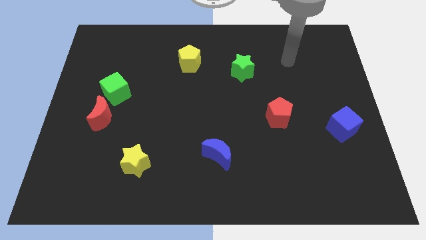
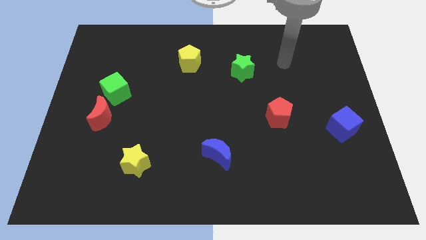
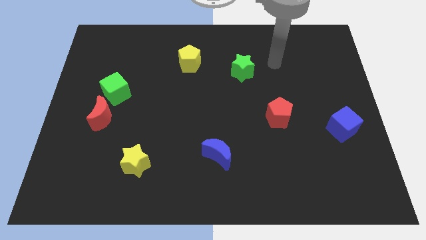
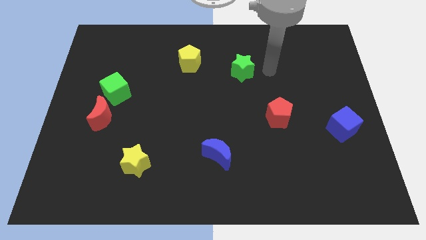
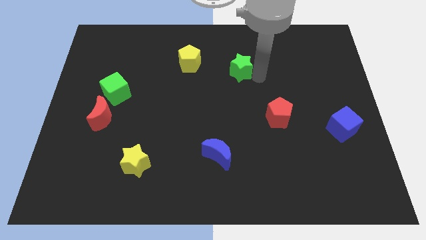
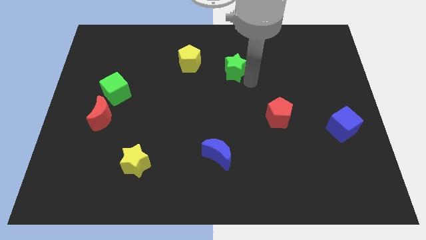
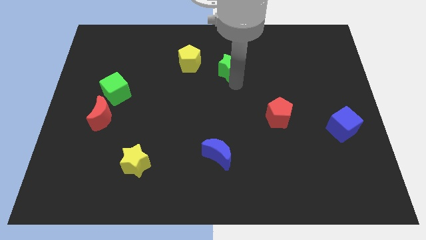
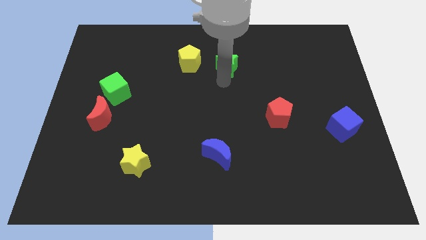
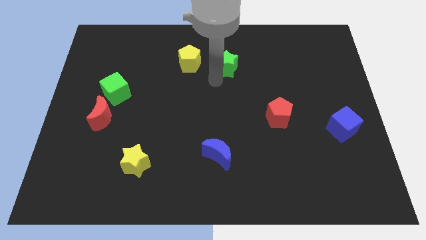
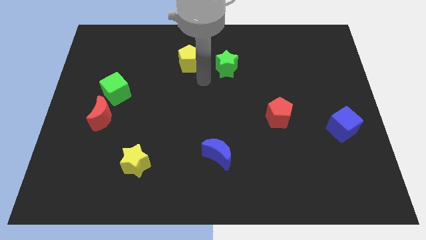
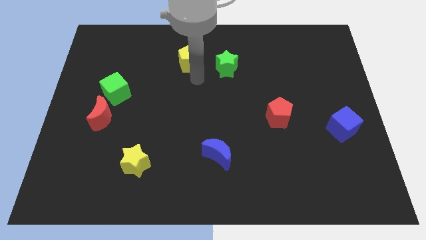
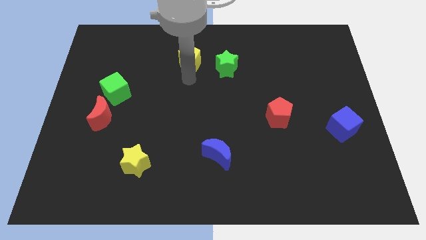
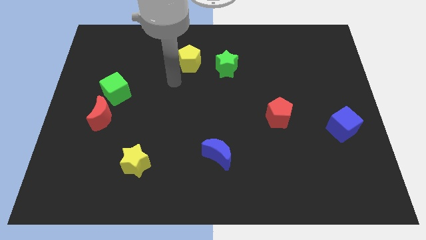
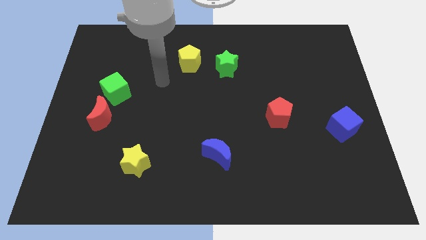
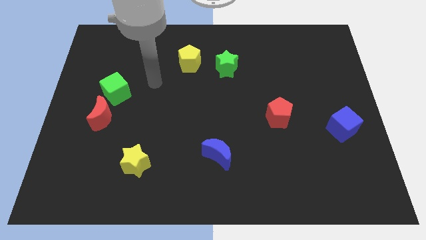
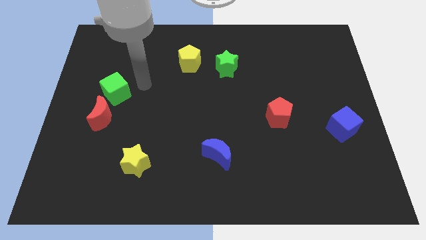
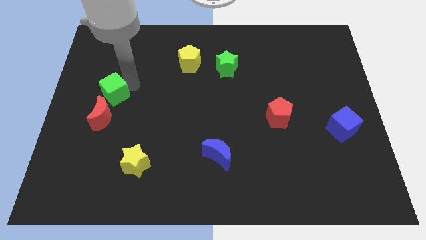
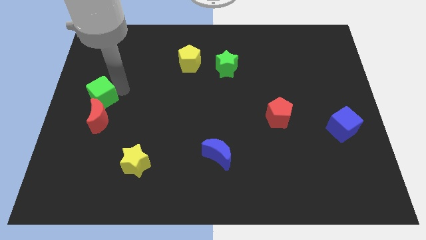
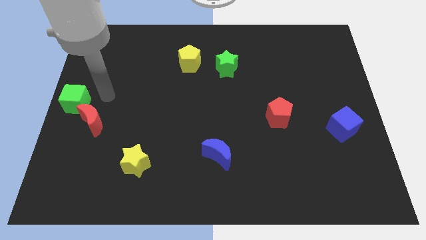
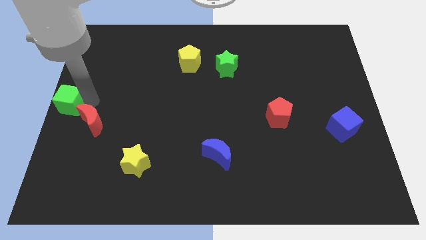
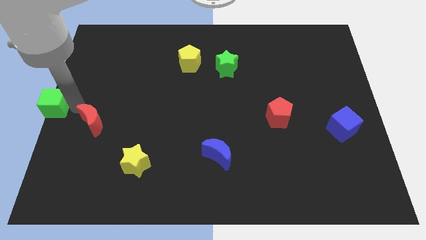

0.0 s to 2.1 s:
separate the red moon from the green cube

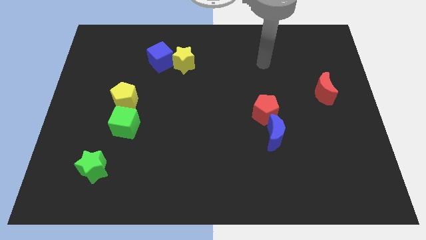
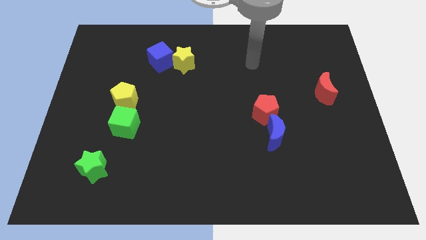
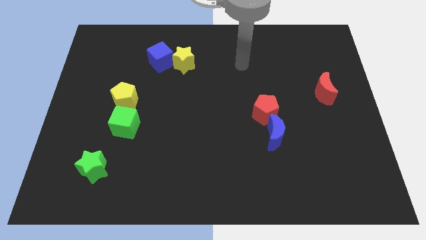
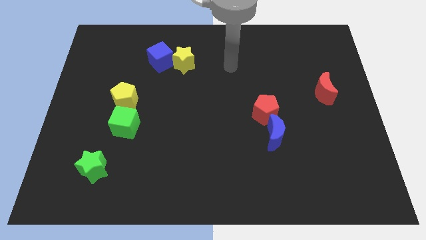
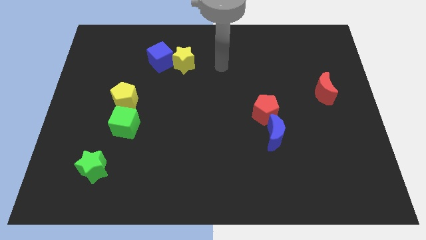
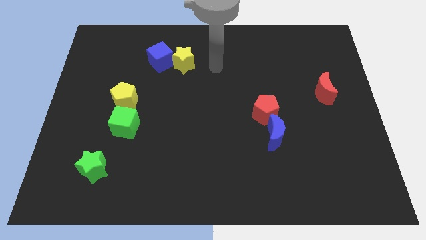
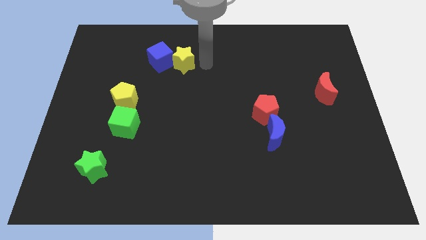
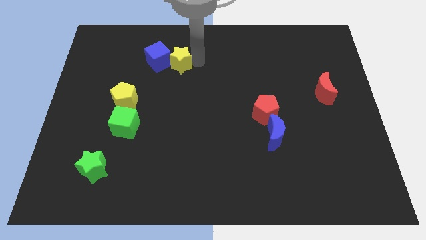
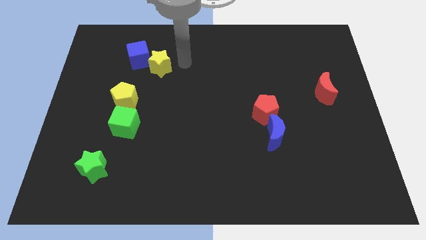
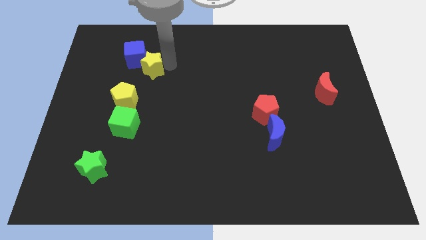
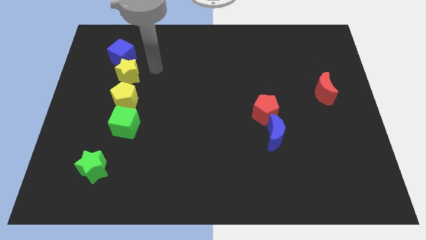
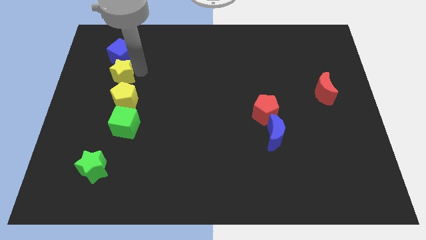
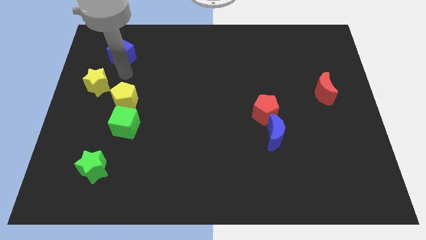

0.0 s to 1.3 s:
move the blue cube away from the yellow star

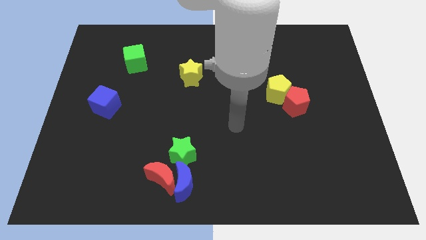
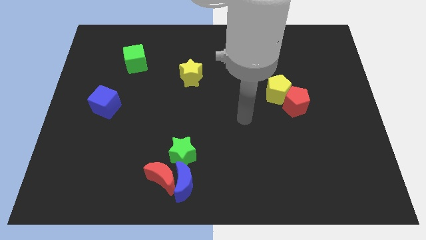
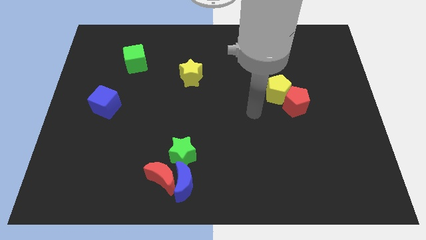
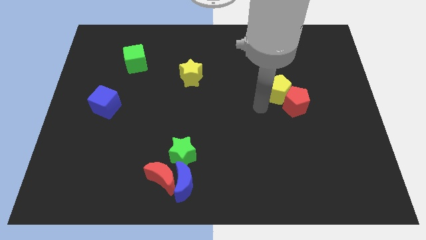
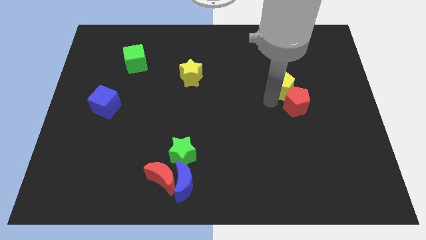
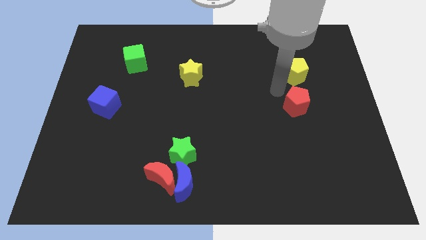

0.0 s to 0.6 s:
move the red pentagon away from the yellow pentagon

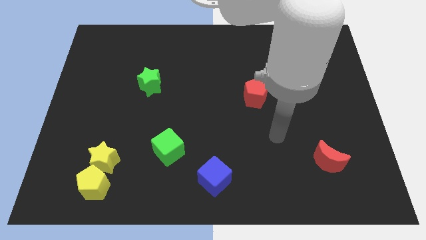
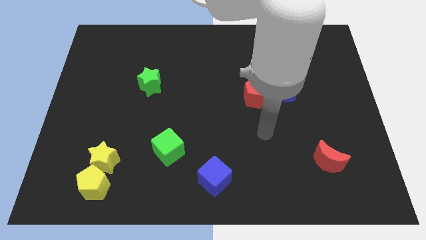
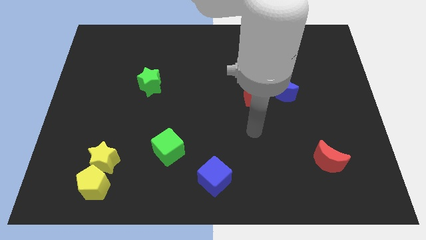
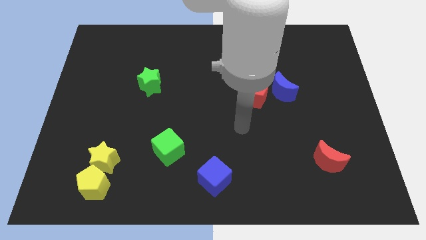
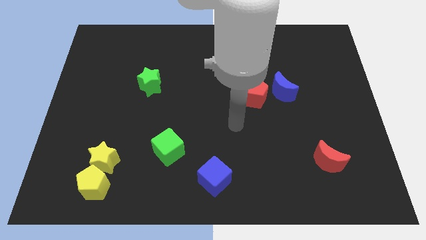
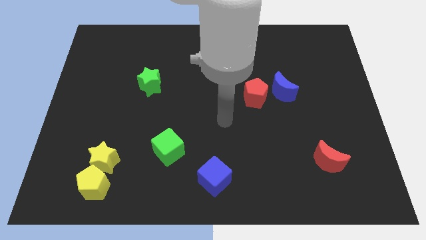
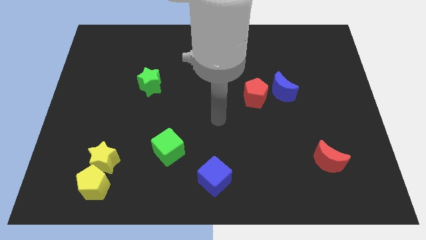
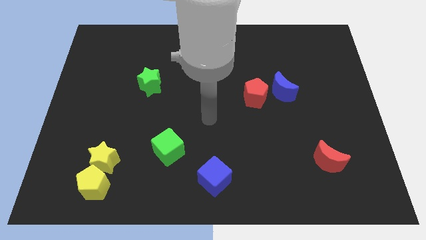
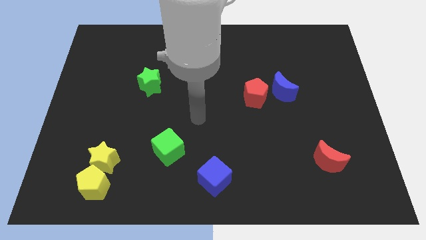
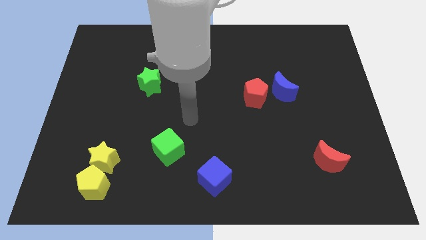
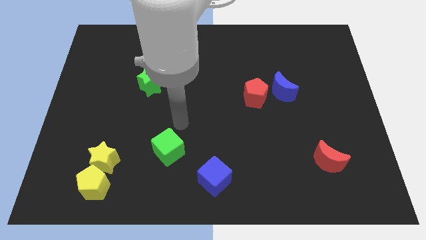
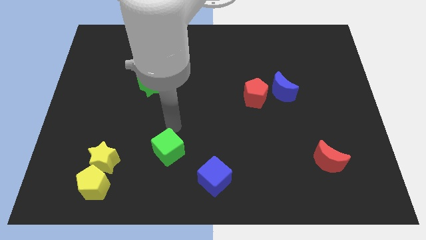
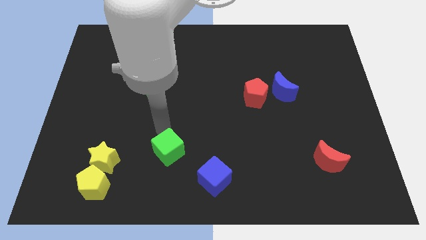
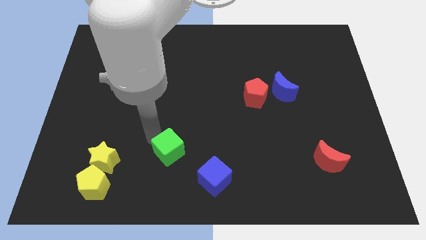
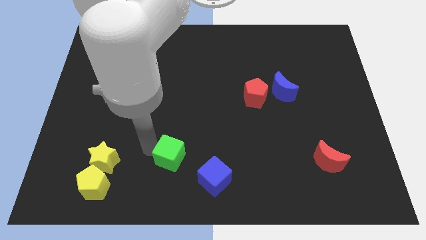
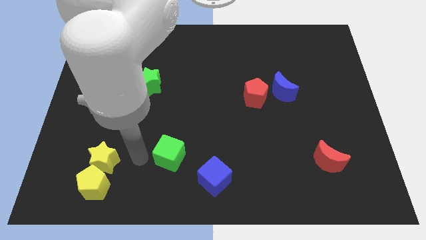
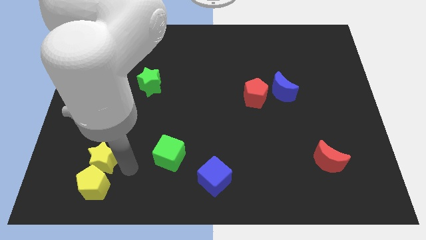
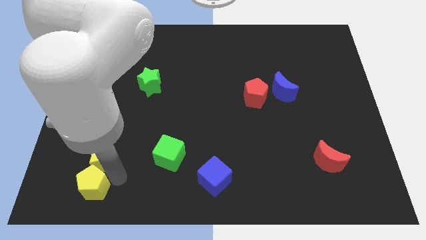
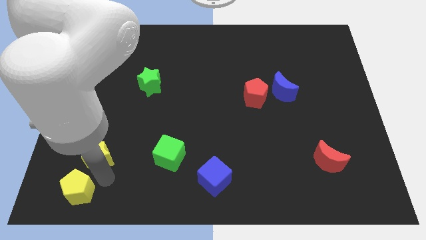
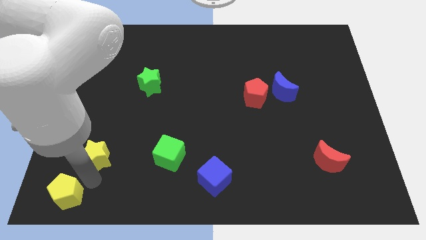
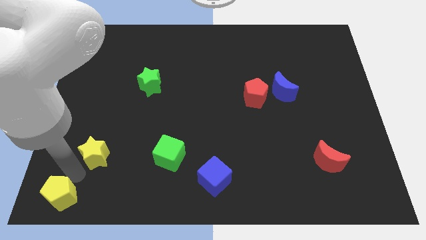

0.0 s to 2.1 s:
move the yellow star away from the yellow pentagon

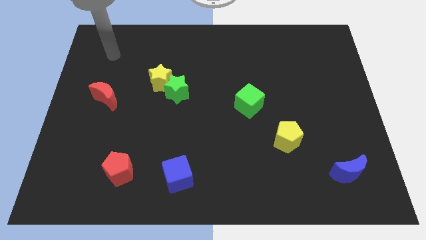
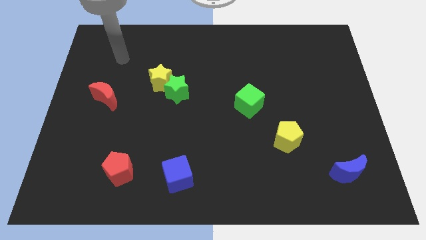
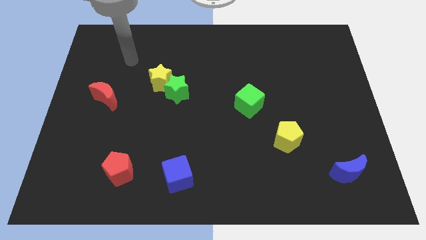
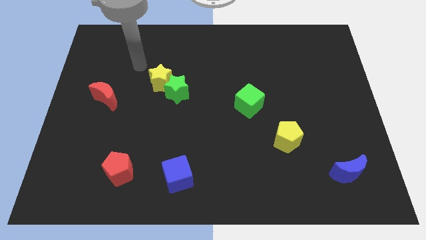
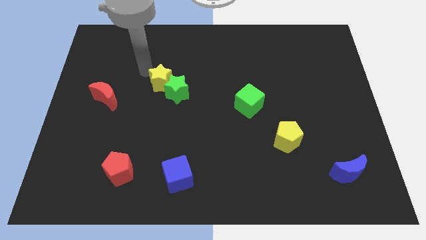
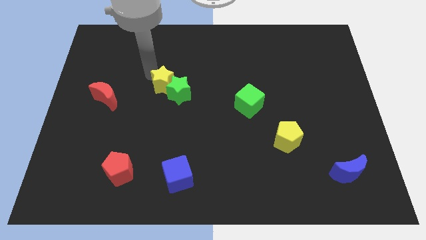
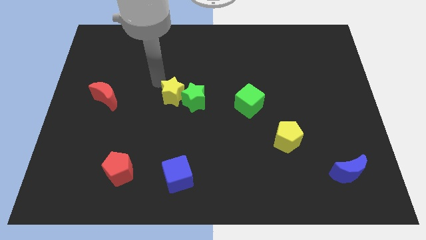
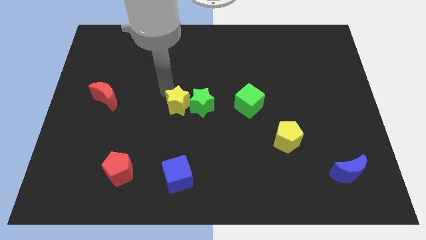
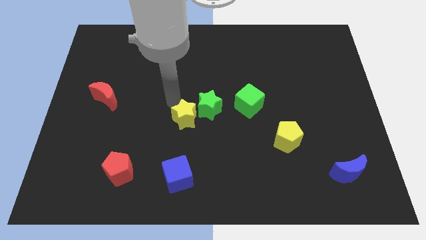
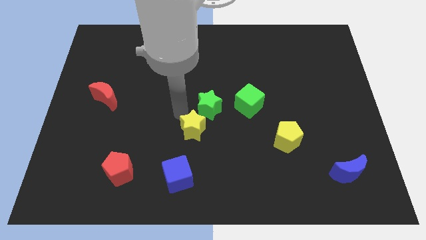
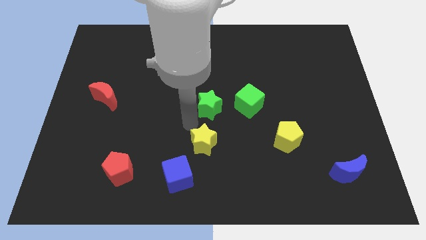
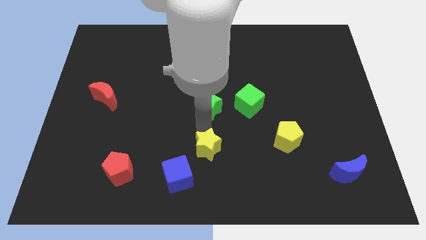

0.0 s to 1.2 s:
move the green star away from the yellow star

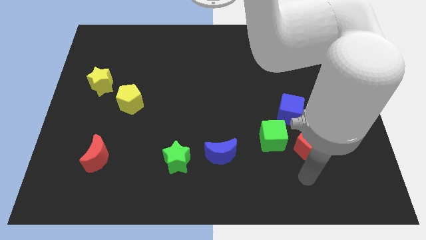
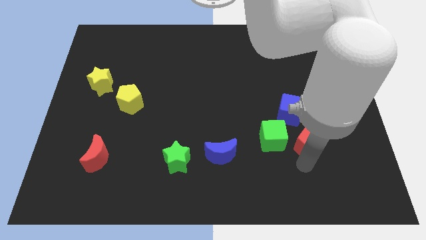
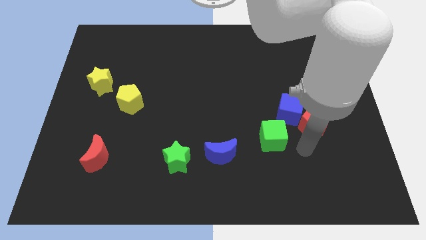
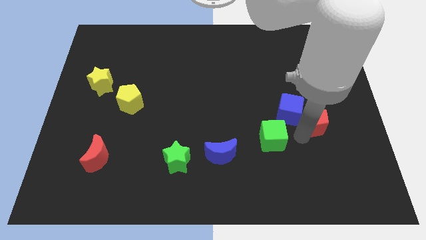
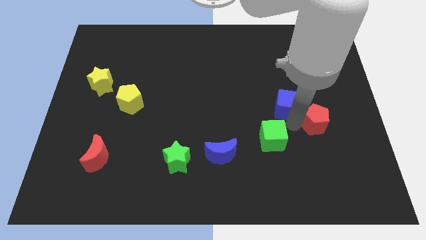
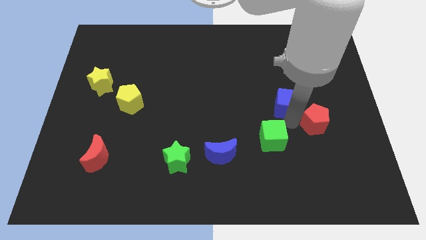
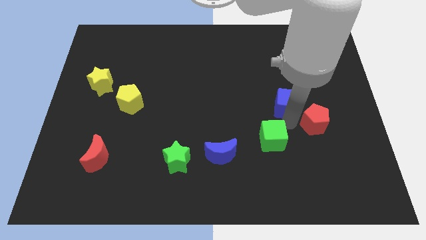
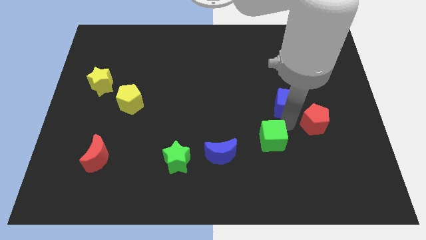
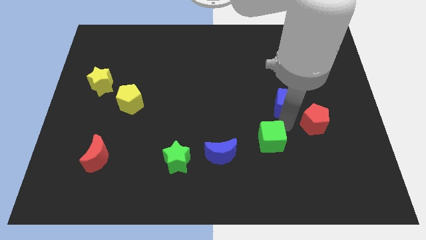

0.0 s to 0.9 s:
pull the green cube apart from the red pentagon and blue cube

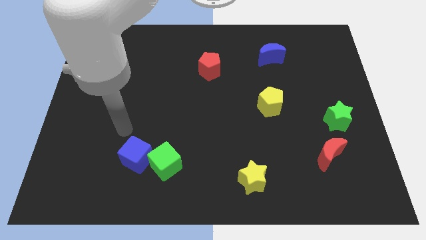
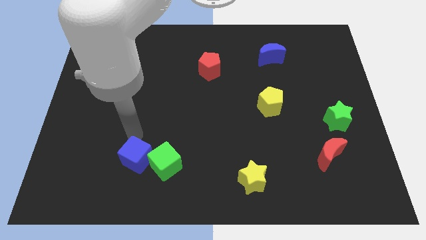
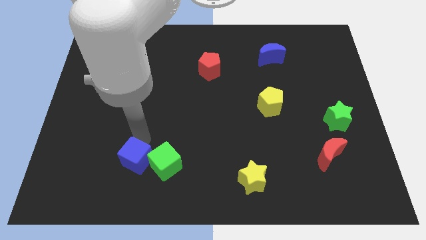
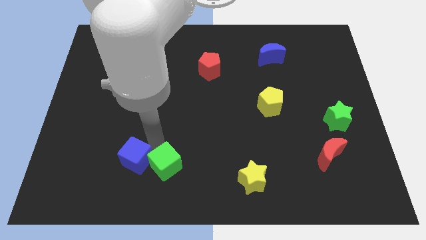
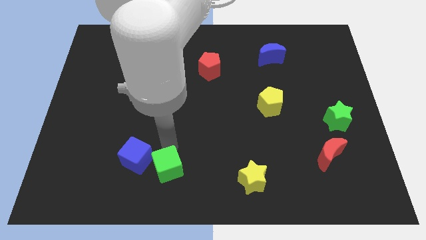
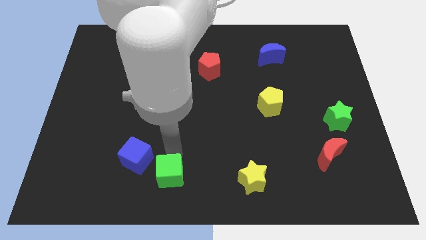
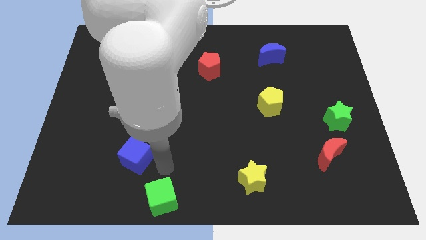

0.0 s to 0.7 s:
pull the blue cube apart from the green cube

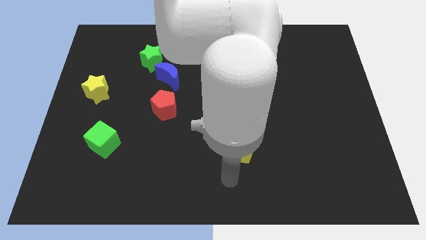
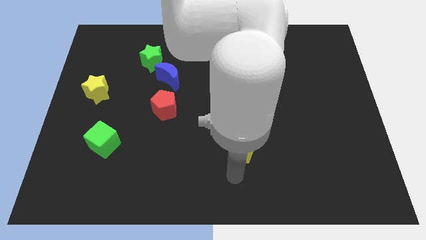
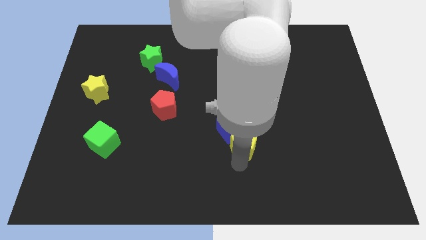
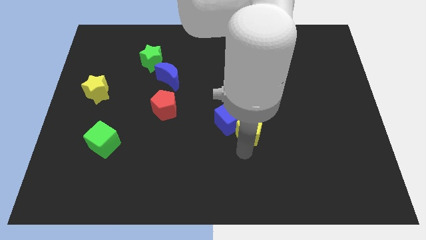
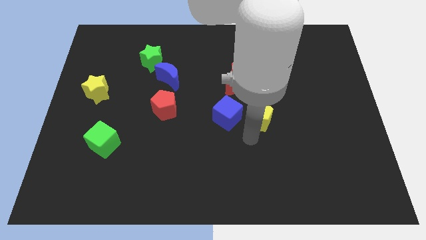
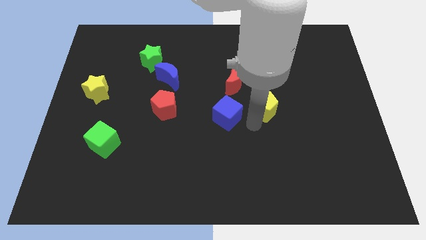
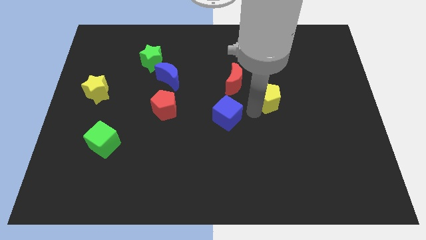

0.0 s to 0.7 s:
move the blue cube away from the yellow pentagon
